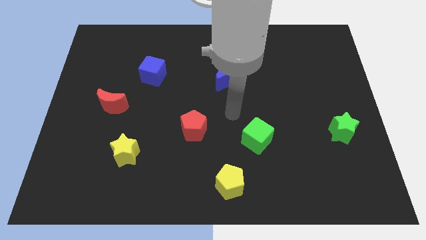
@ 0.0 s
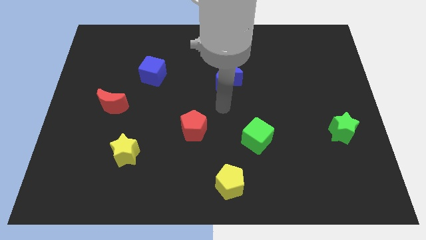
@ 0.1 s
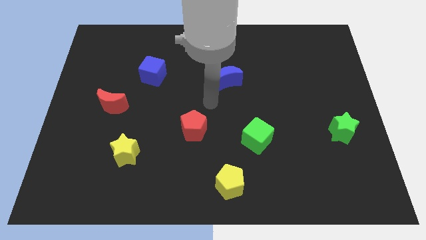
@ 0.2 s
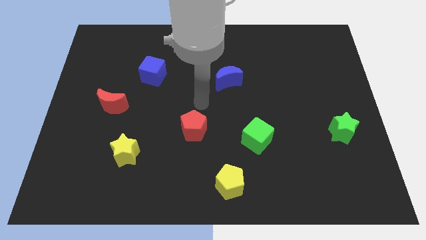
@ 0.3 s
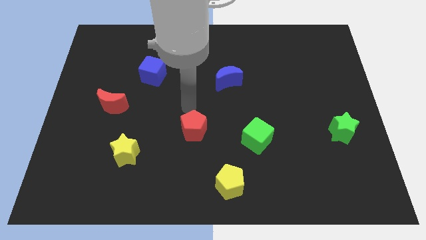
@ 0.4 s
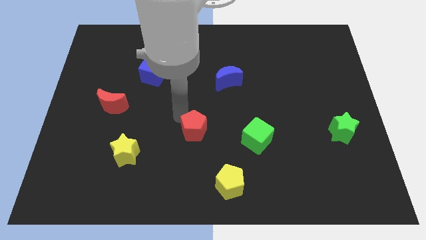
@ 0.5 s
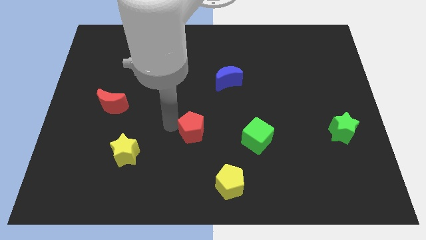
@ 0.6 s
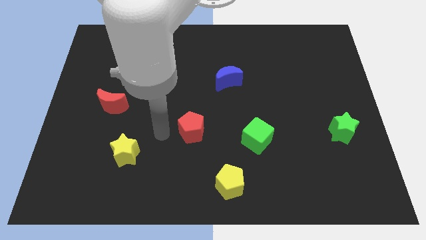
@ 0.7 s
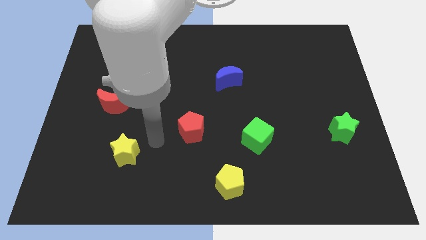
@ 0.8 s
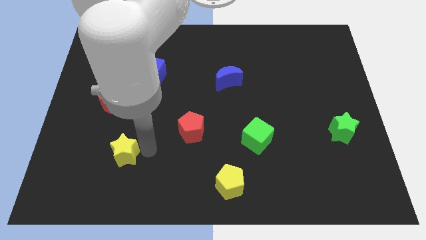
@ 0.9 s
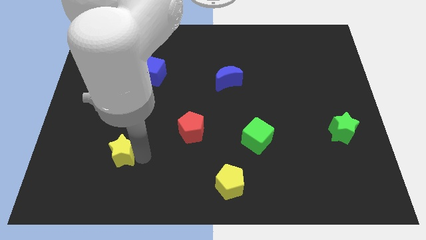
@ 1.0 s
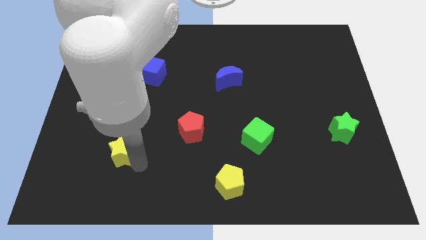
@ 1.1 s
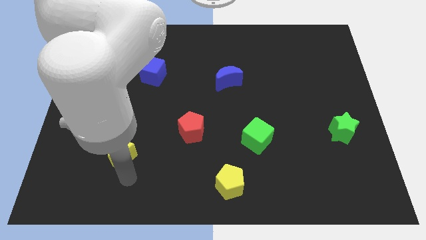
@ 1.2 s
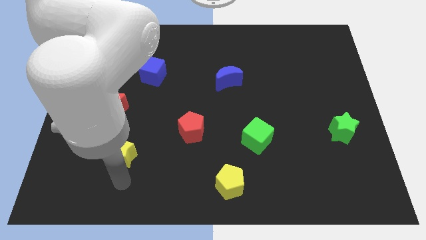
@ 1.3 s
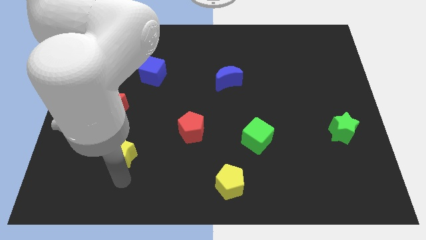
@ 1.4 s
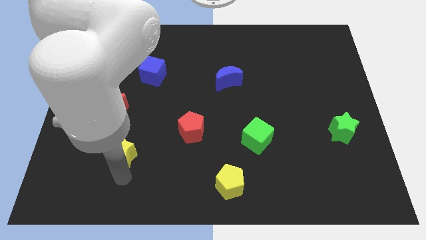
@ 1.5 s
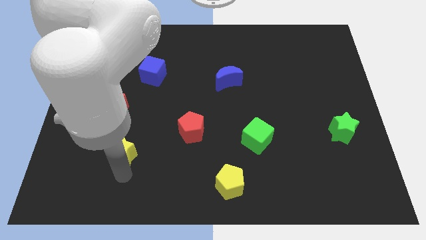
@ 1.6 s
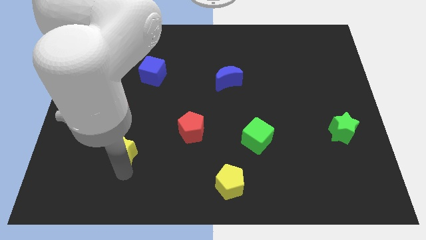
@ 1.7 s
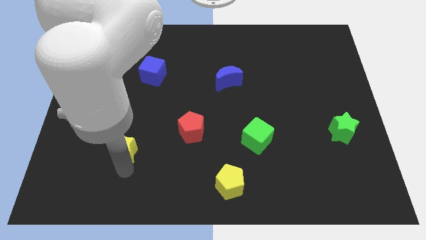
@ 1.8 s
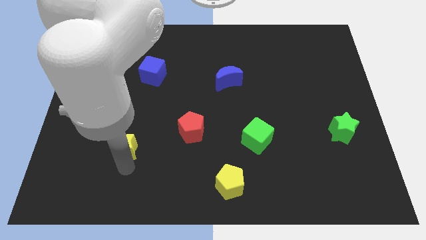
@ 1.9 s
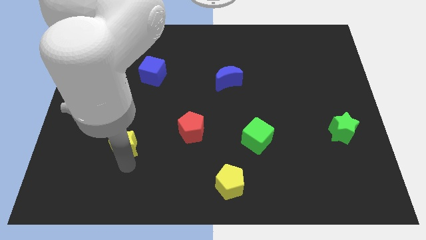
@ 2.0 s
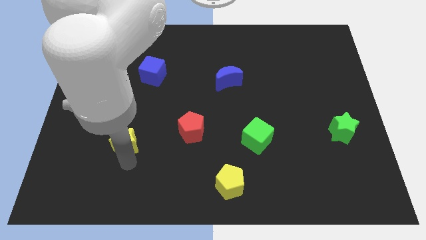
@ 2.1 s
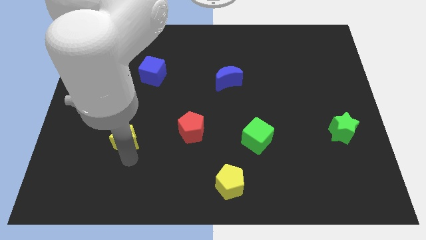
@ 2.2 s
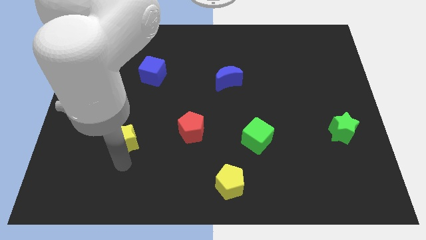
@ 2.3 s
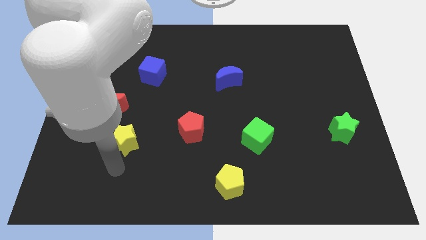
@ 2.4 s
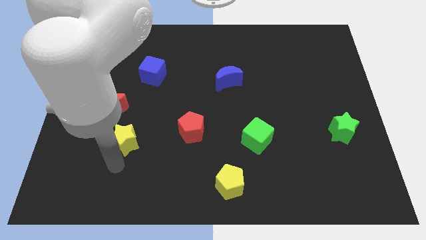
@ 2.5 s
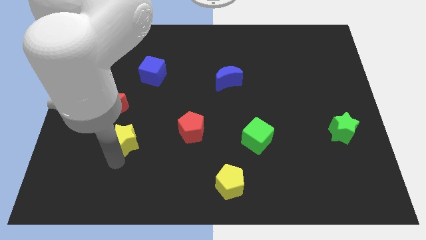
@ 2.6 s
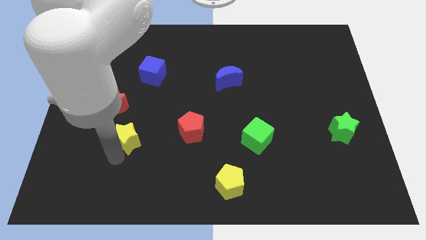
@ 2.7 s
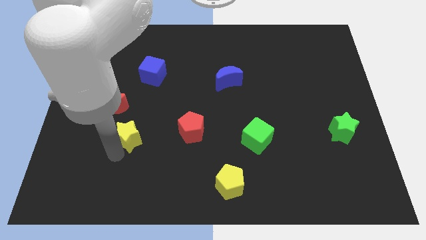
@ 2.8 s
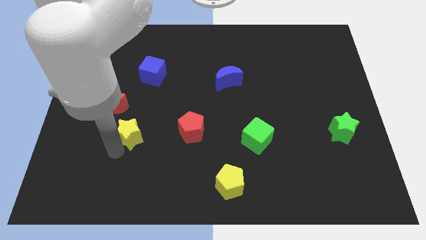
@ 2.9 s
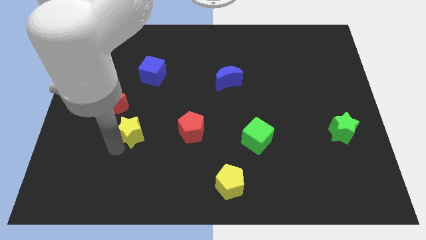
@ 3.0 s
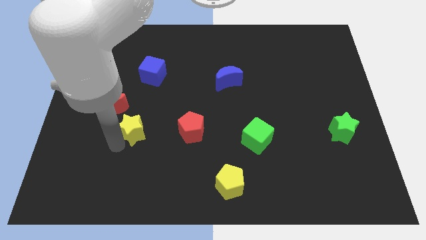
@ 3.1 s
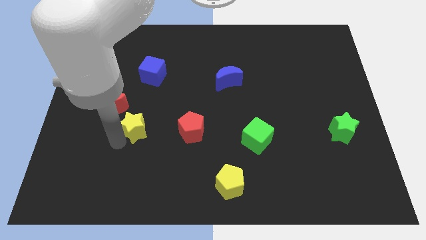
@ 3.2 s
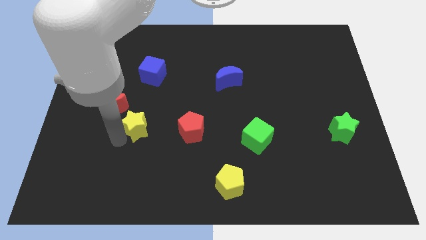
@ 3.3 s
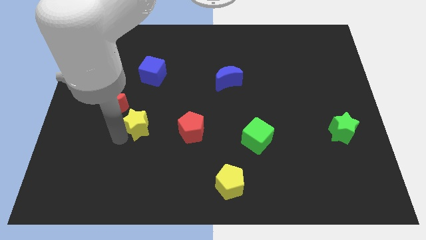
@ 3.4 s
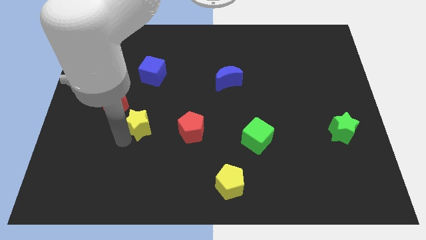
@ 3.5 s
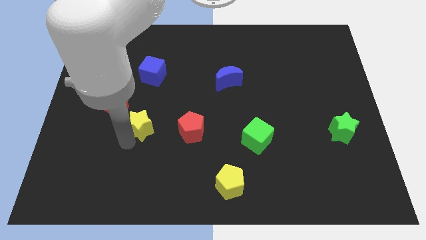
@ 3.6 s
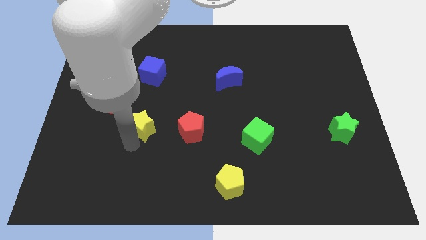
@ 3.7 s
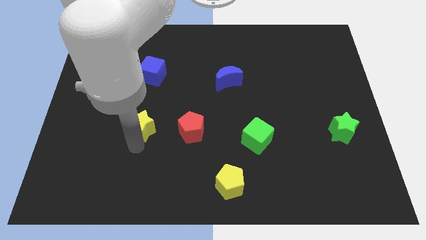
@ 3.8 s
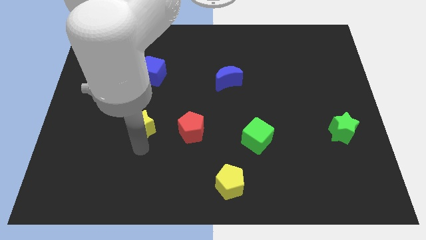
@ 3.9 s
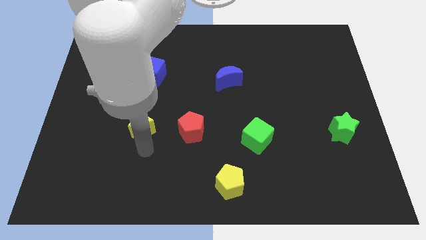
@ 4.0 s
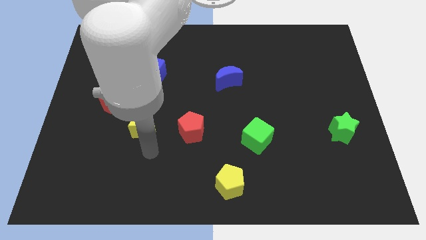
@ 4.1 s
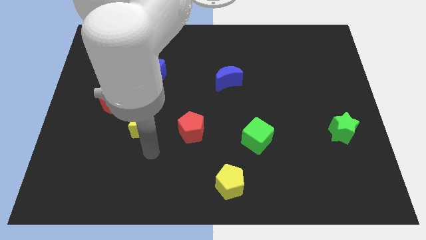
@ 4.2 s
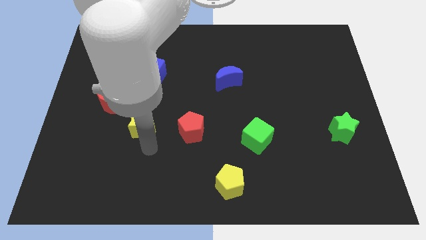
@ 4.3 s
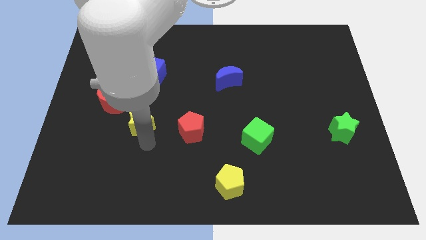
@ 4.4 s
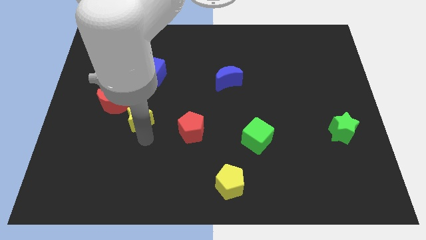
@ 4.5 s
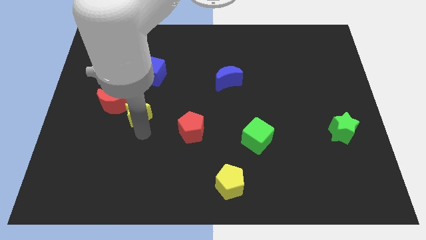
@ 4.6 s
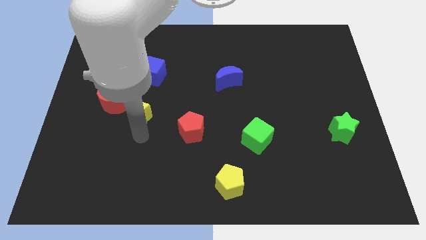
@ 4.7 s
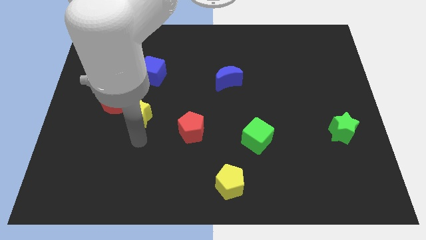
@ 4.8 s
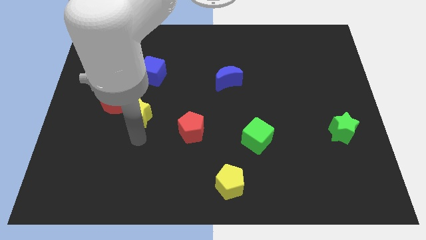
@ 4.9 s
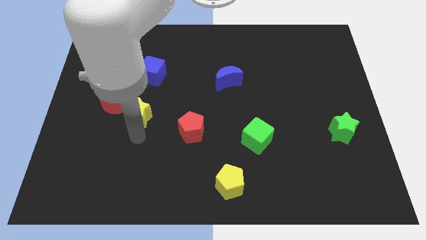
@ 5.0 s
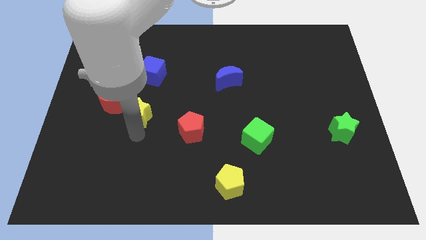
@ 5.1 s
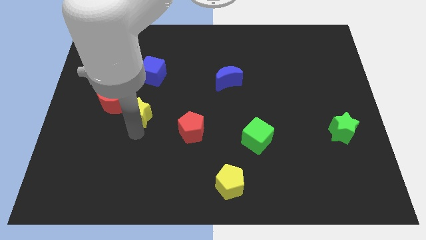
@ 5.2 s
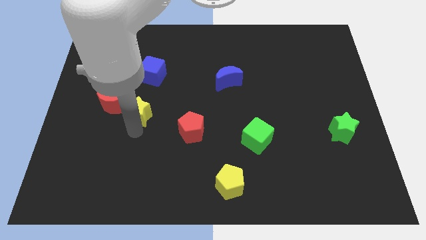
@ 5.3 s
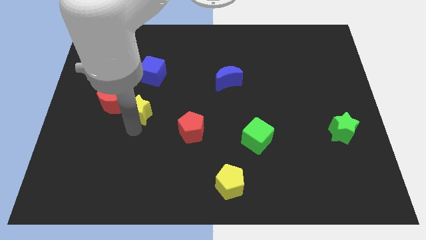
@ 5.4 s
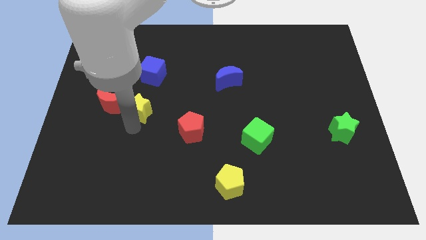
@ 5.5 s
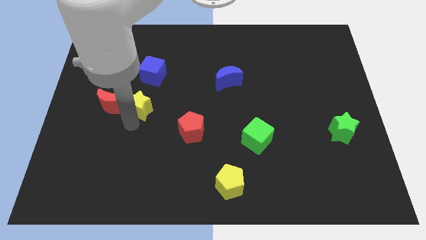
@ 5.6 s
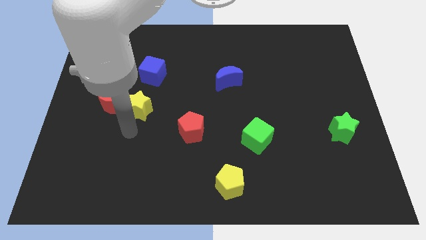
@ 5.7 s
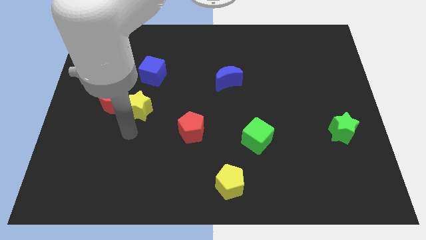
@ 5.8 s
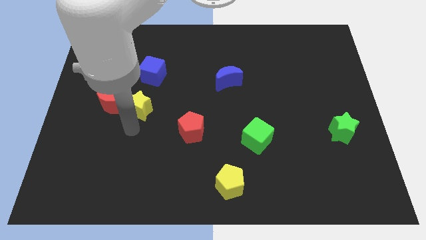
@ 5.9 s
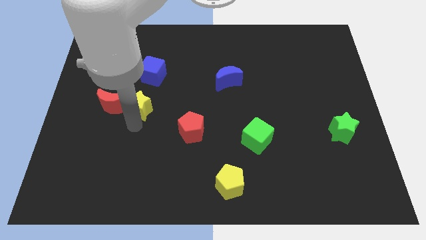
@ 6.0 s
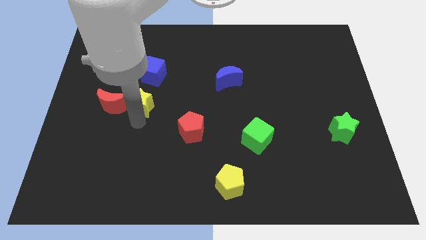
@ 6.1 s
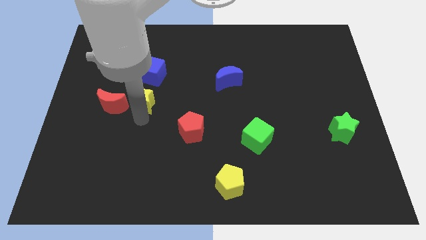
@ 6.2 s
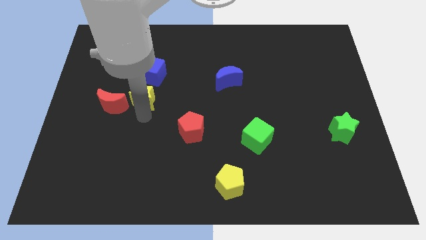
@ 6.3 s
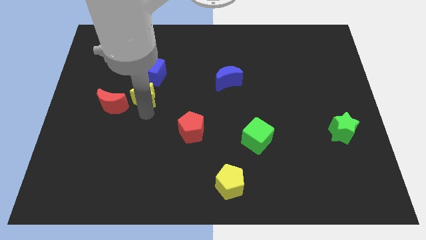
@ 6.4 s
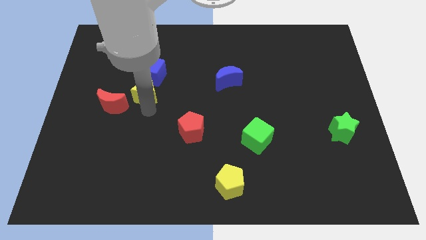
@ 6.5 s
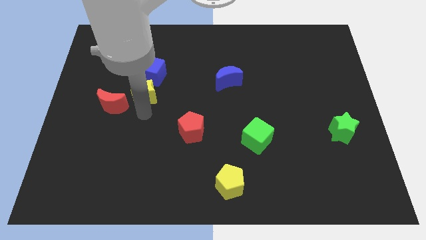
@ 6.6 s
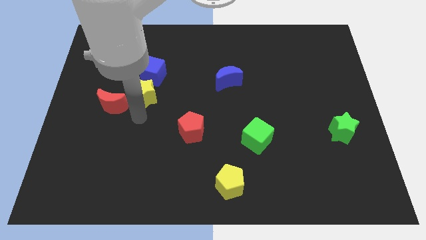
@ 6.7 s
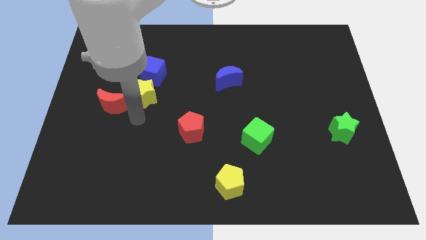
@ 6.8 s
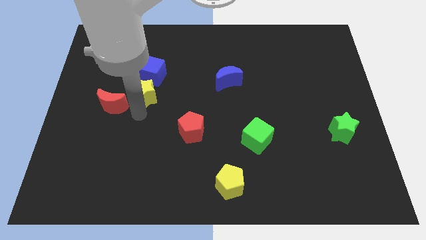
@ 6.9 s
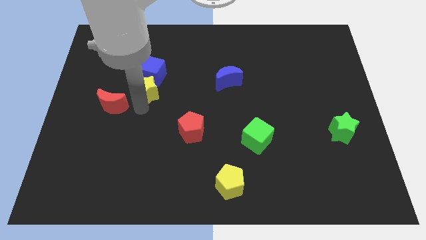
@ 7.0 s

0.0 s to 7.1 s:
move the yellow star next to the blue cube
